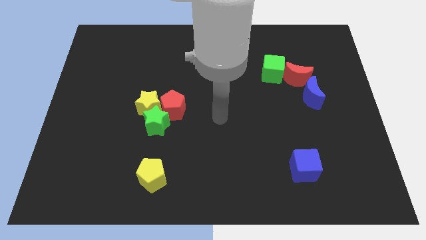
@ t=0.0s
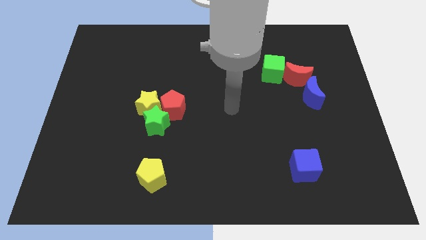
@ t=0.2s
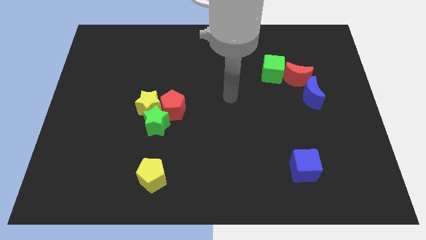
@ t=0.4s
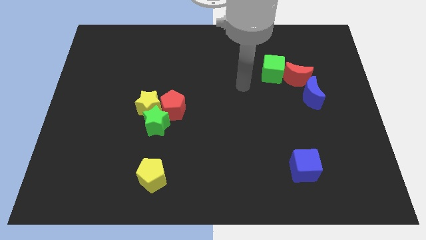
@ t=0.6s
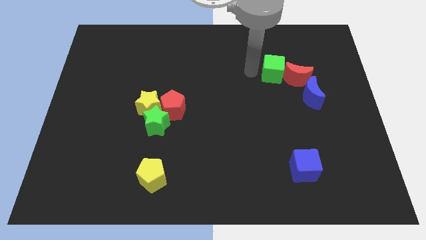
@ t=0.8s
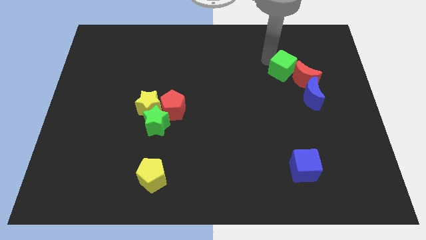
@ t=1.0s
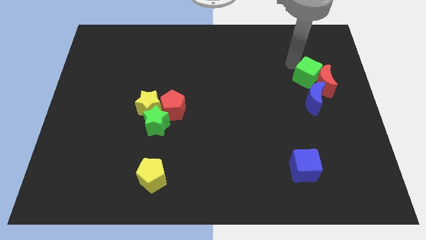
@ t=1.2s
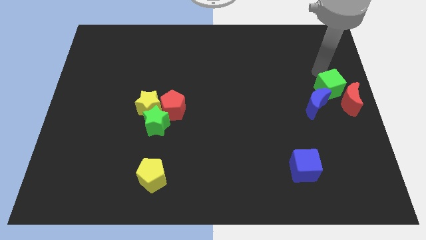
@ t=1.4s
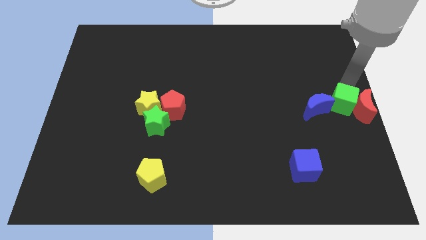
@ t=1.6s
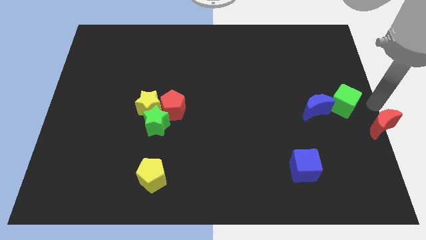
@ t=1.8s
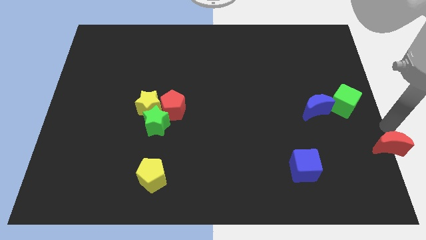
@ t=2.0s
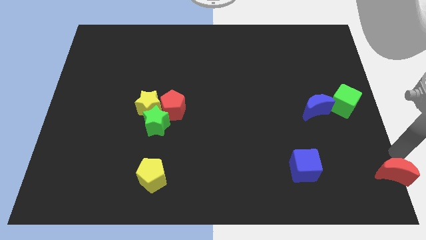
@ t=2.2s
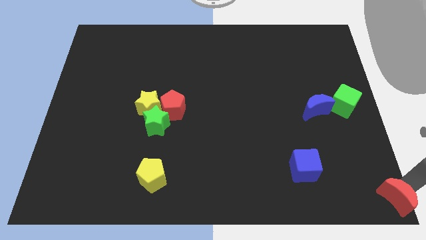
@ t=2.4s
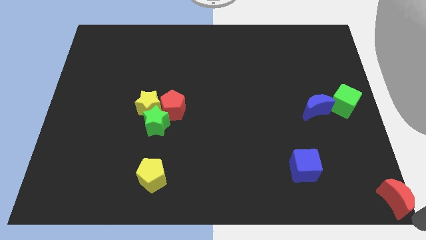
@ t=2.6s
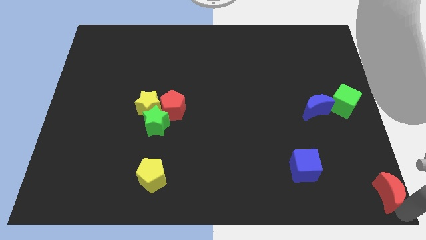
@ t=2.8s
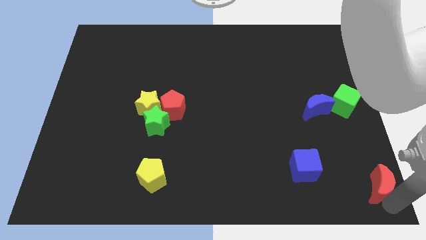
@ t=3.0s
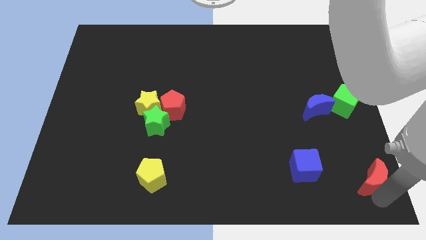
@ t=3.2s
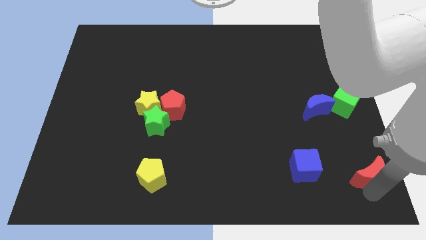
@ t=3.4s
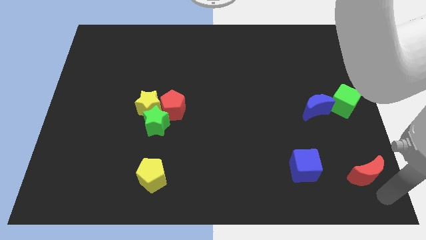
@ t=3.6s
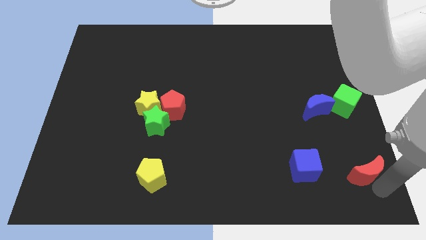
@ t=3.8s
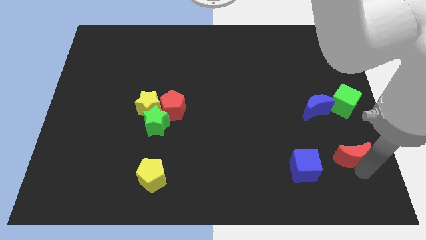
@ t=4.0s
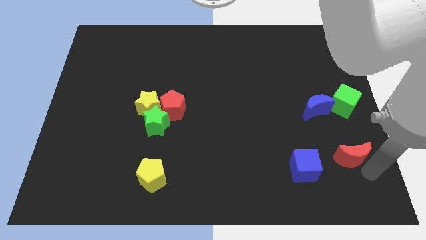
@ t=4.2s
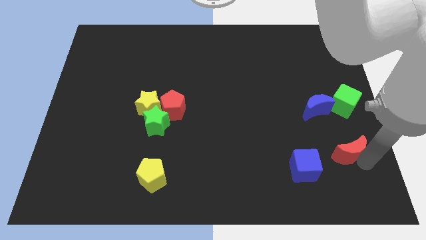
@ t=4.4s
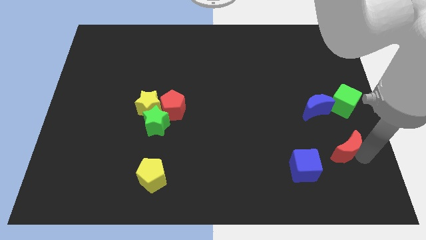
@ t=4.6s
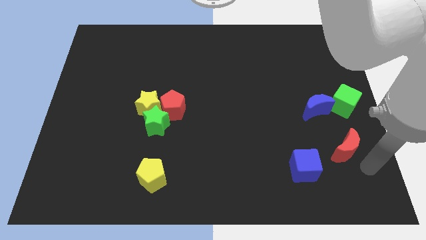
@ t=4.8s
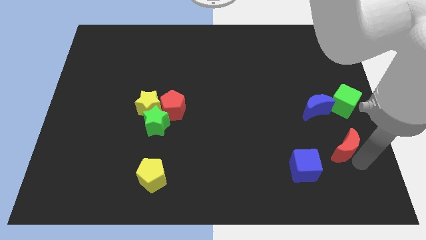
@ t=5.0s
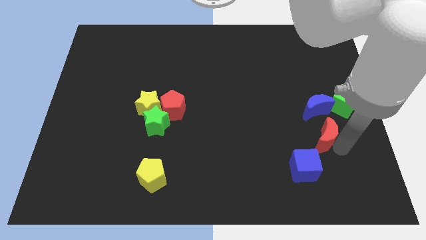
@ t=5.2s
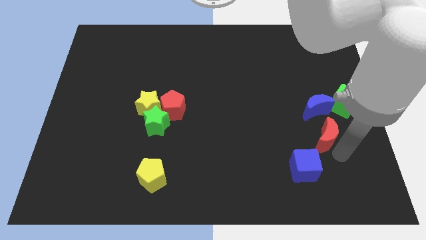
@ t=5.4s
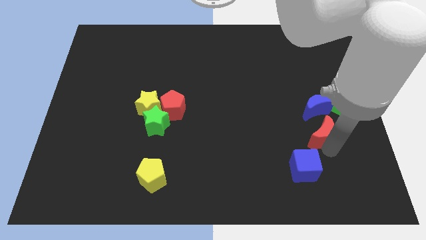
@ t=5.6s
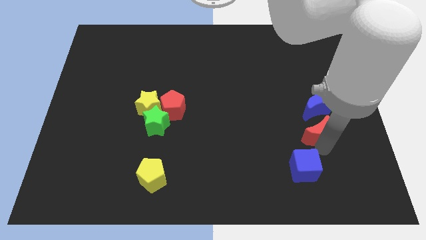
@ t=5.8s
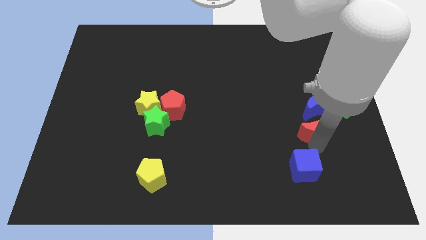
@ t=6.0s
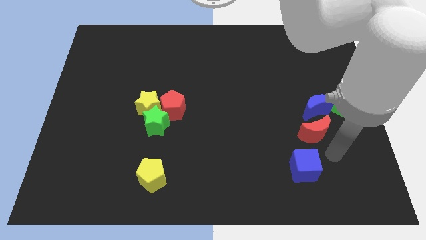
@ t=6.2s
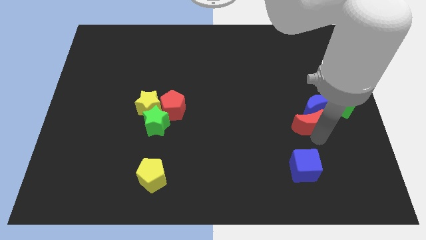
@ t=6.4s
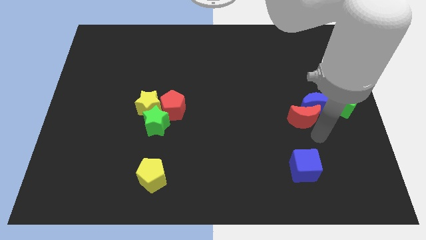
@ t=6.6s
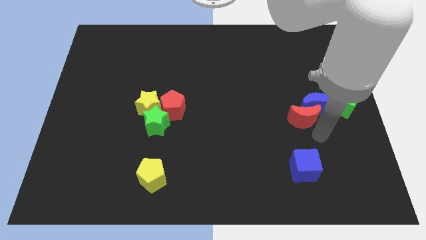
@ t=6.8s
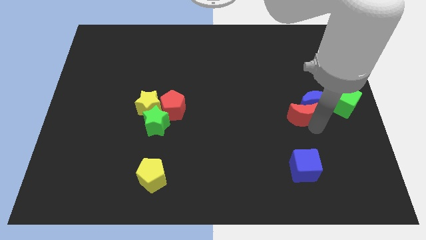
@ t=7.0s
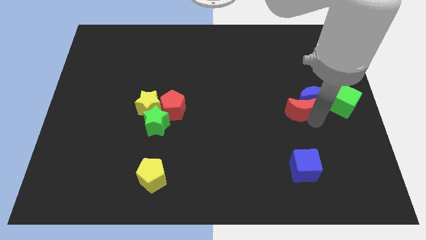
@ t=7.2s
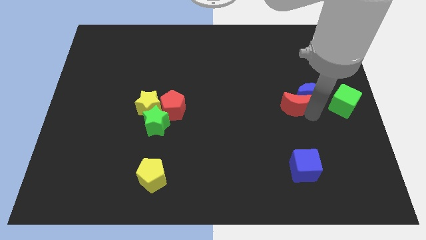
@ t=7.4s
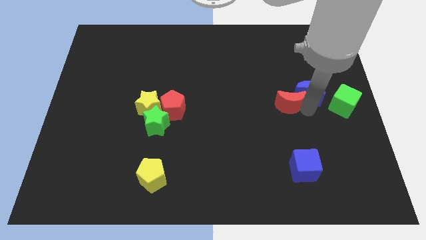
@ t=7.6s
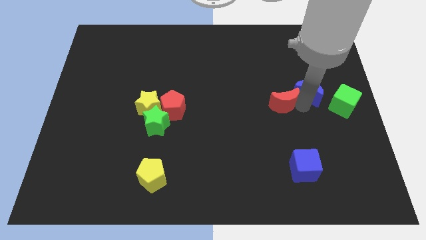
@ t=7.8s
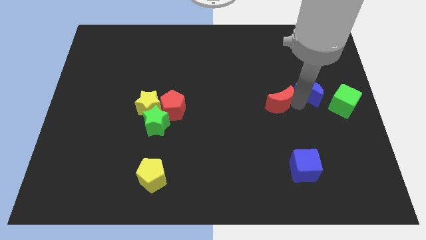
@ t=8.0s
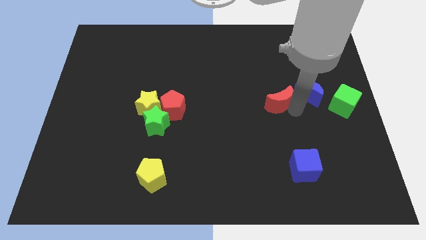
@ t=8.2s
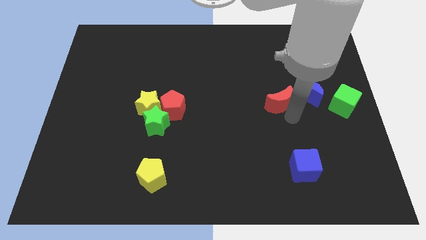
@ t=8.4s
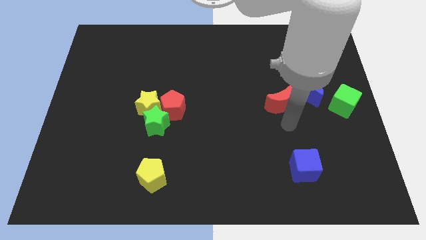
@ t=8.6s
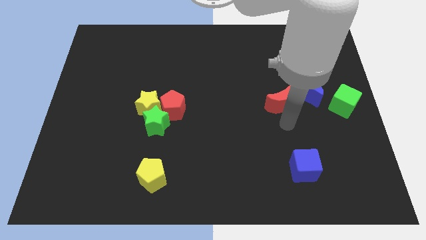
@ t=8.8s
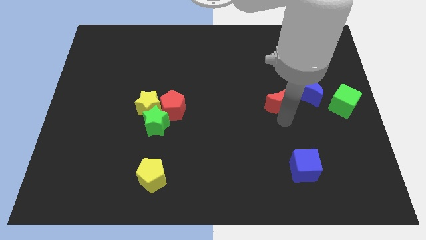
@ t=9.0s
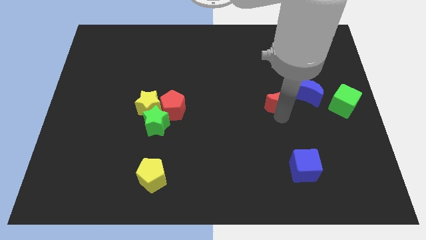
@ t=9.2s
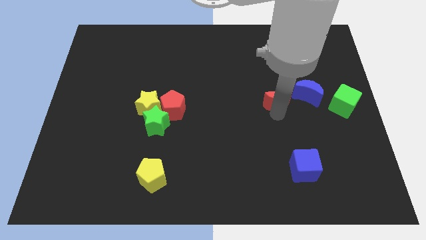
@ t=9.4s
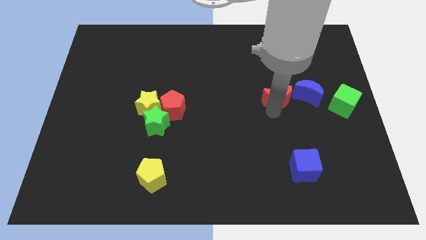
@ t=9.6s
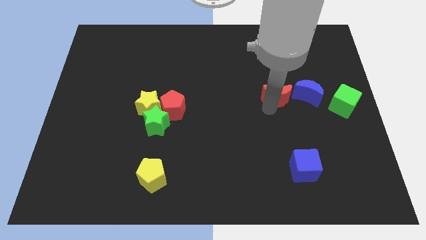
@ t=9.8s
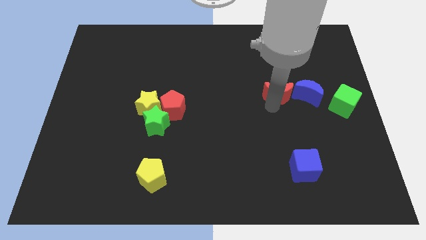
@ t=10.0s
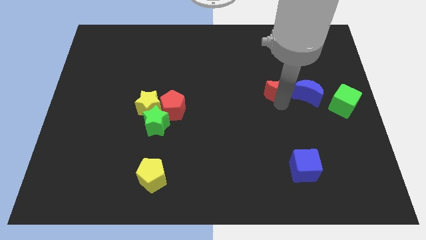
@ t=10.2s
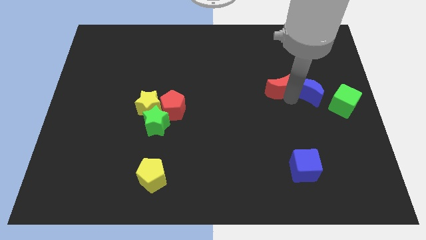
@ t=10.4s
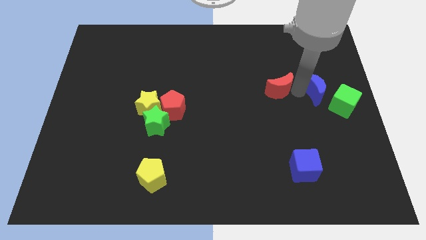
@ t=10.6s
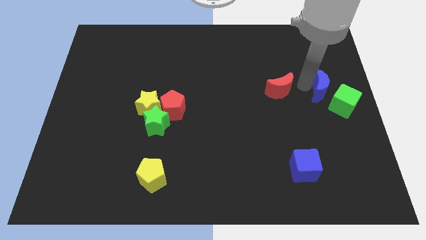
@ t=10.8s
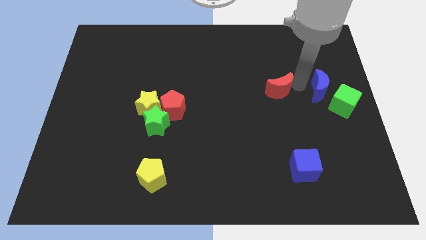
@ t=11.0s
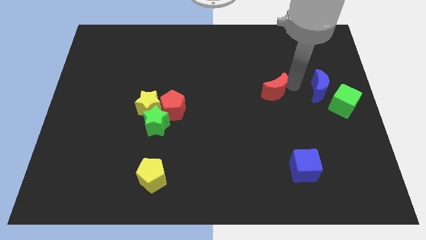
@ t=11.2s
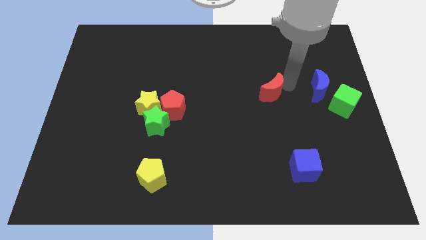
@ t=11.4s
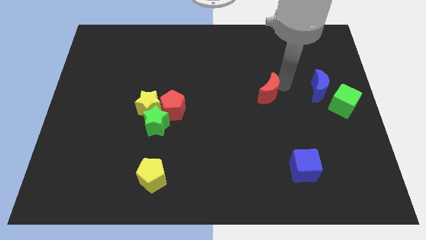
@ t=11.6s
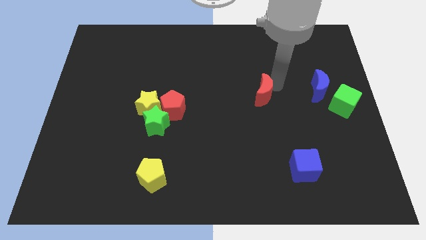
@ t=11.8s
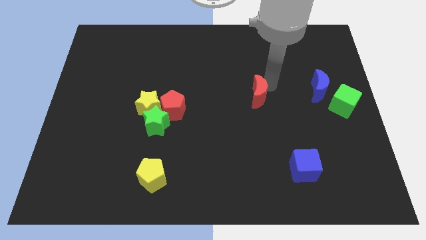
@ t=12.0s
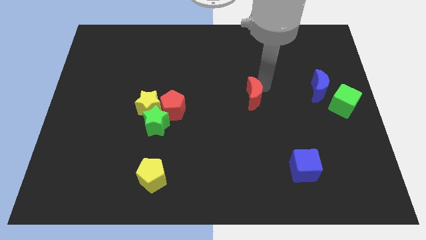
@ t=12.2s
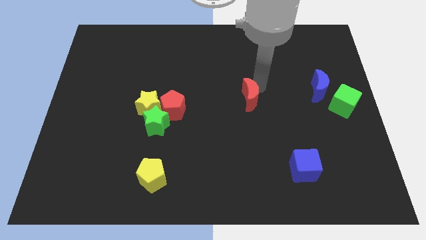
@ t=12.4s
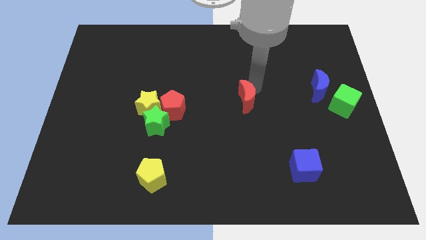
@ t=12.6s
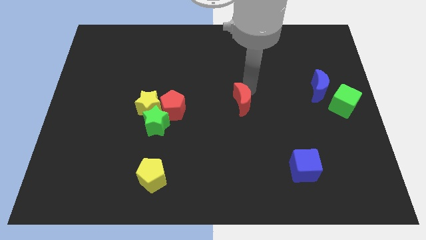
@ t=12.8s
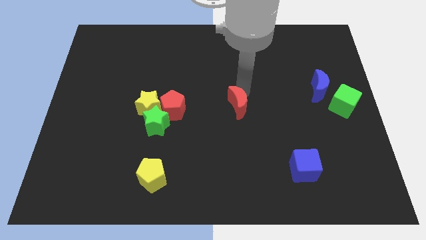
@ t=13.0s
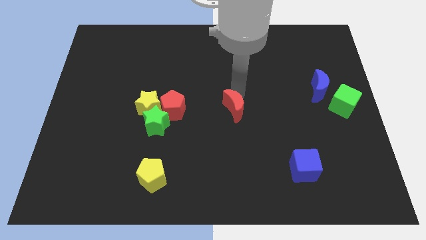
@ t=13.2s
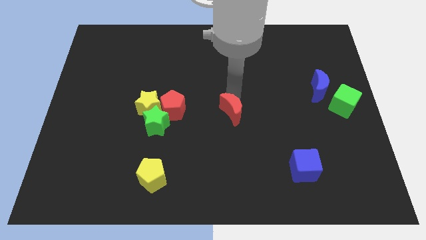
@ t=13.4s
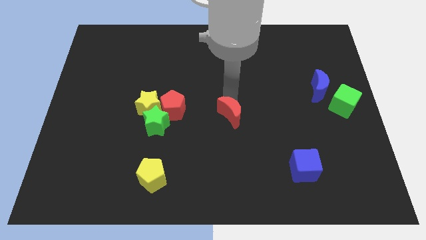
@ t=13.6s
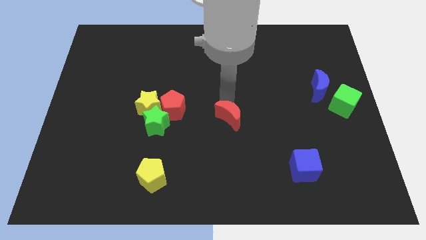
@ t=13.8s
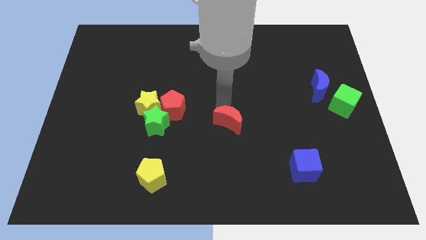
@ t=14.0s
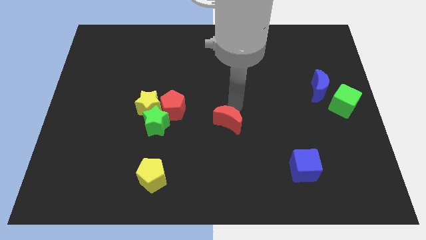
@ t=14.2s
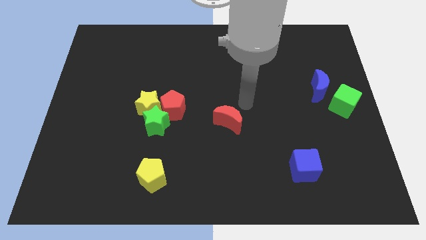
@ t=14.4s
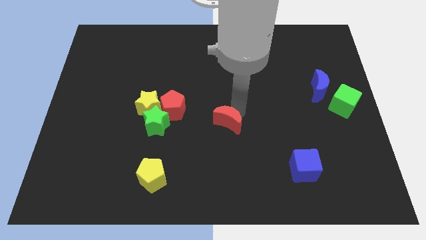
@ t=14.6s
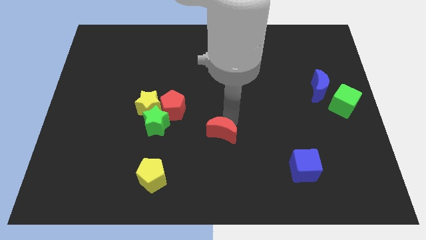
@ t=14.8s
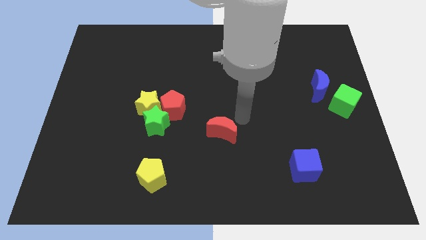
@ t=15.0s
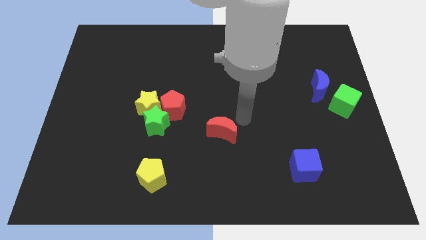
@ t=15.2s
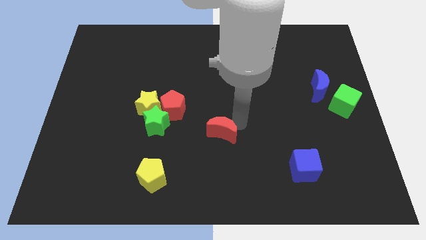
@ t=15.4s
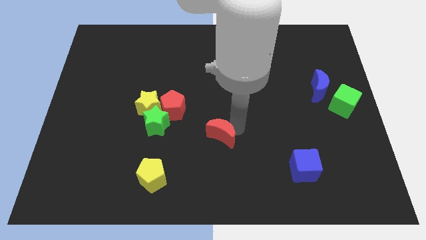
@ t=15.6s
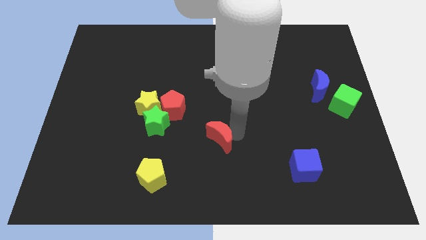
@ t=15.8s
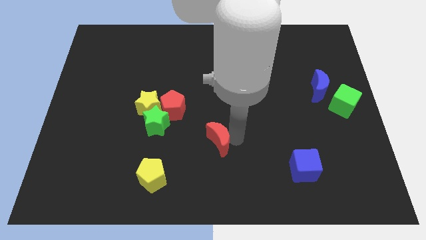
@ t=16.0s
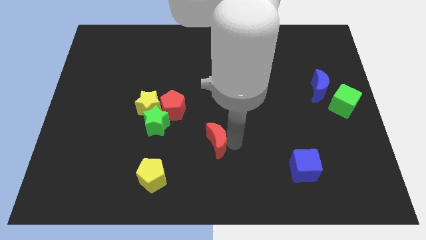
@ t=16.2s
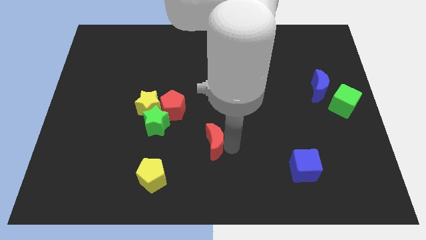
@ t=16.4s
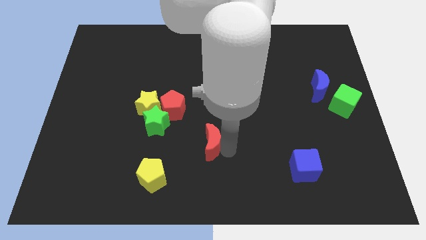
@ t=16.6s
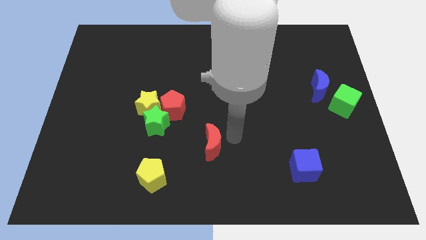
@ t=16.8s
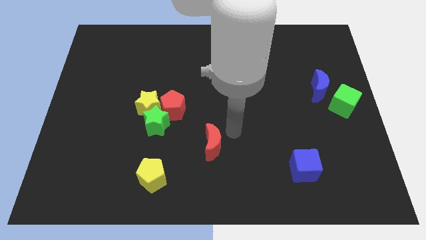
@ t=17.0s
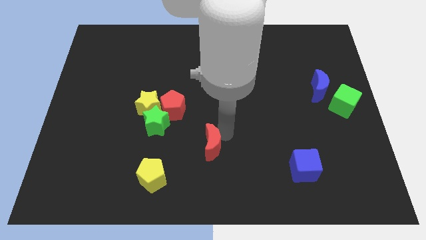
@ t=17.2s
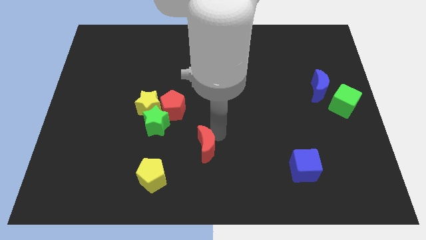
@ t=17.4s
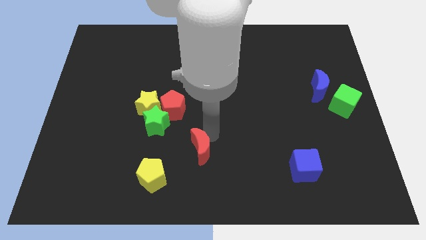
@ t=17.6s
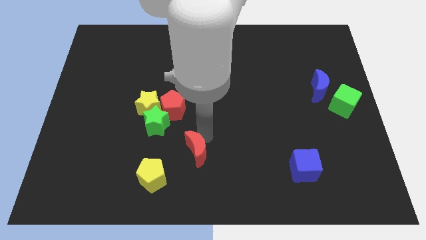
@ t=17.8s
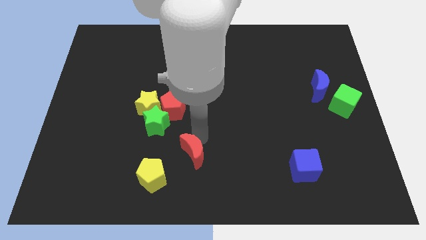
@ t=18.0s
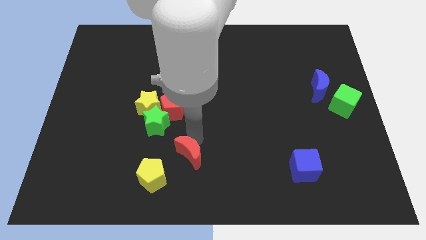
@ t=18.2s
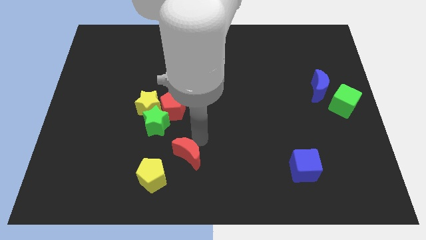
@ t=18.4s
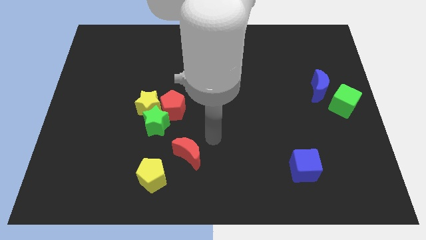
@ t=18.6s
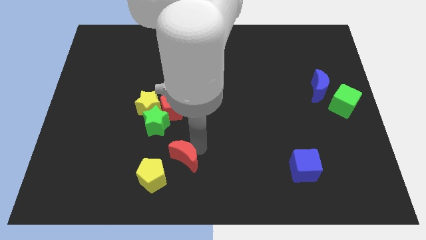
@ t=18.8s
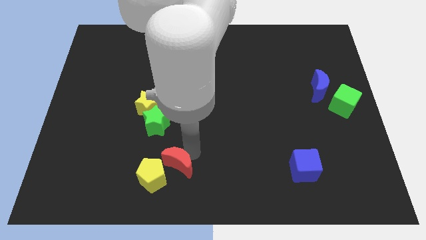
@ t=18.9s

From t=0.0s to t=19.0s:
put the red moon to the yellow pentagon
